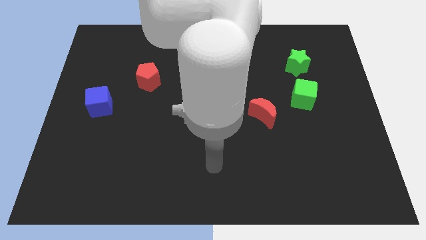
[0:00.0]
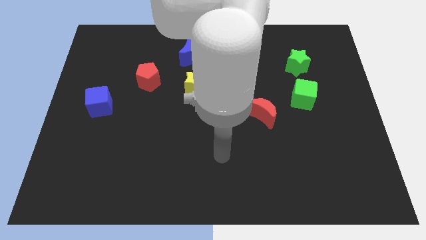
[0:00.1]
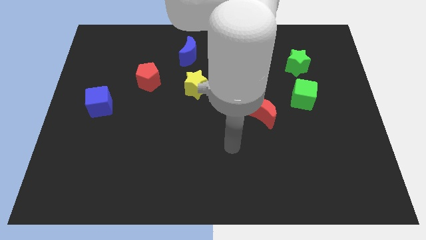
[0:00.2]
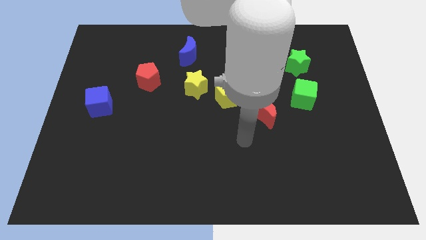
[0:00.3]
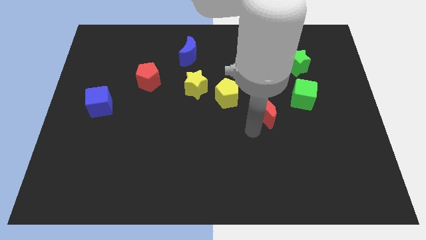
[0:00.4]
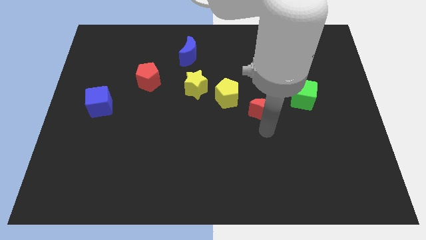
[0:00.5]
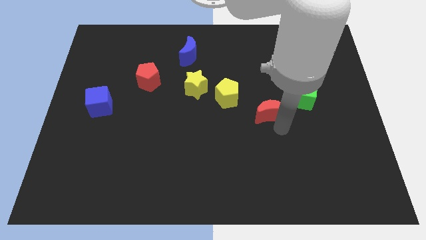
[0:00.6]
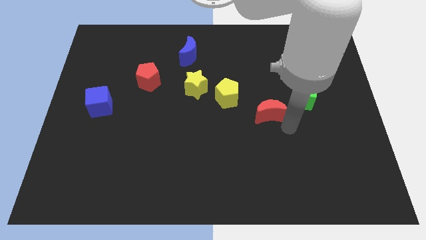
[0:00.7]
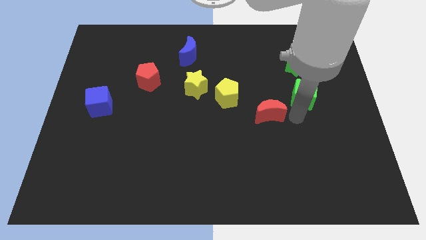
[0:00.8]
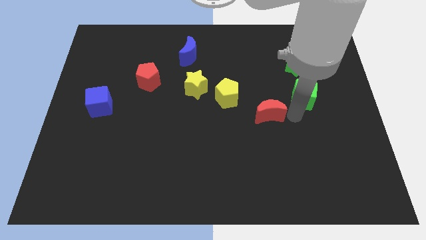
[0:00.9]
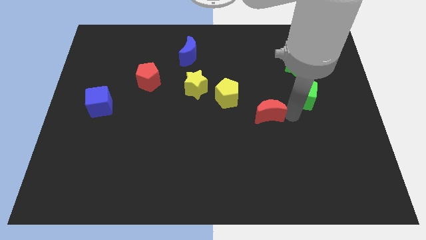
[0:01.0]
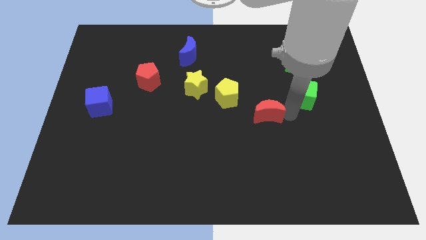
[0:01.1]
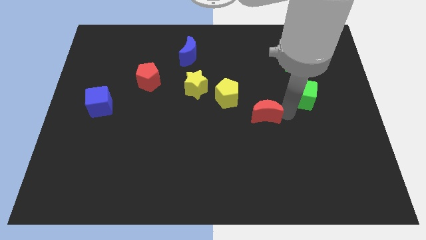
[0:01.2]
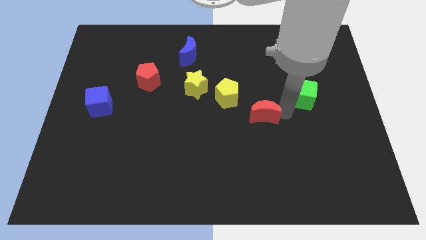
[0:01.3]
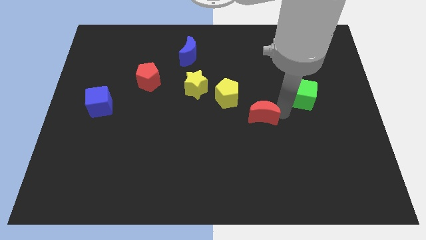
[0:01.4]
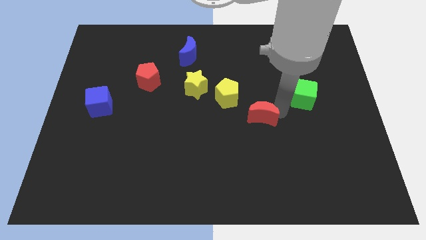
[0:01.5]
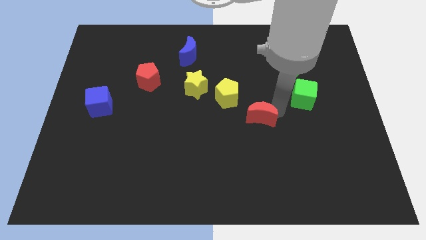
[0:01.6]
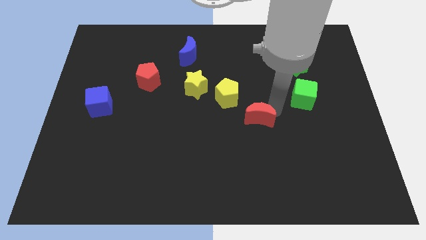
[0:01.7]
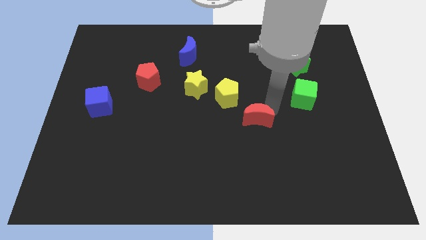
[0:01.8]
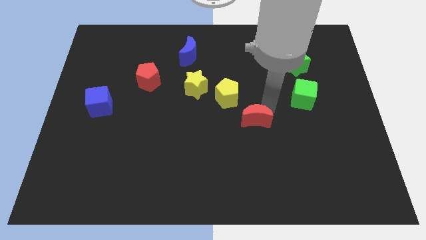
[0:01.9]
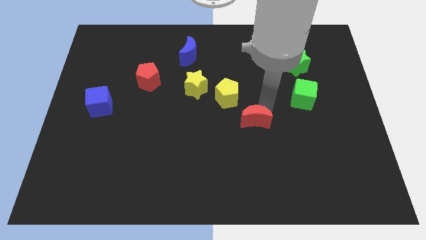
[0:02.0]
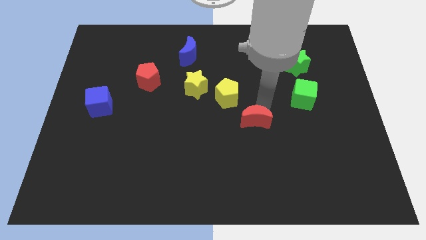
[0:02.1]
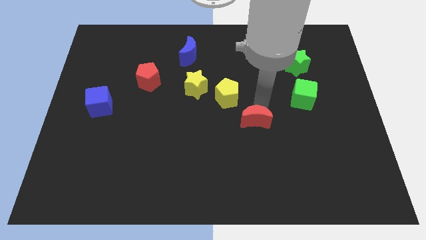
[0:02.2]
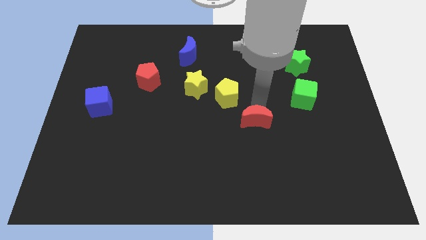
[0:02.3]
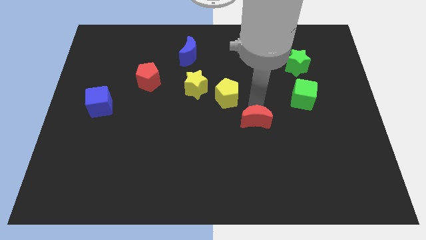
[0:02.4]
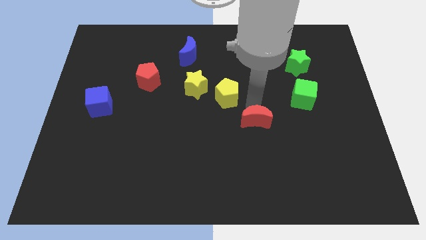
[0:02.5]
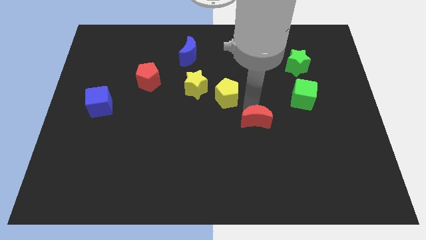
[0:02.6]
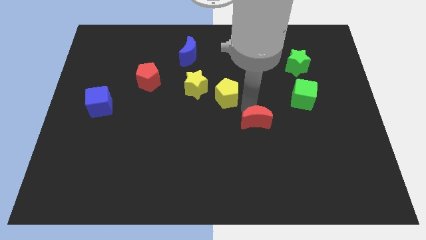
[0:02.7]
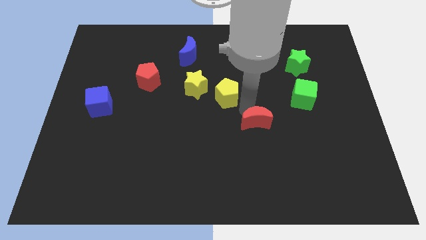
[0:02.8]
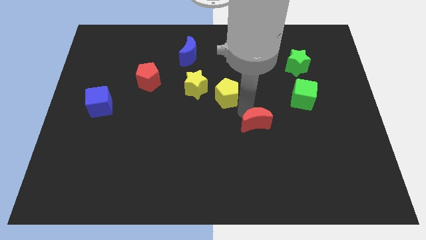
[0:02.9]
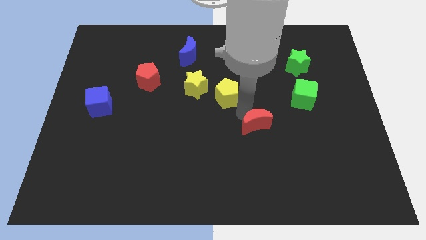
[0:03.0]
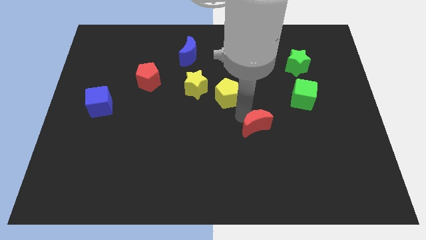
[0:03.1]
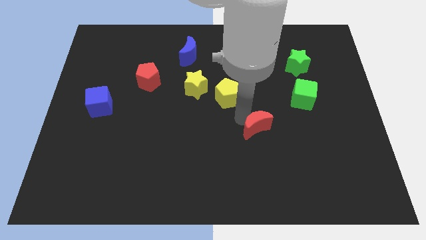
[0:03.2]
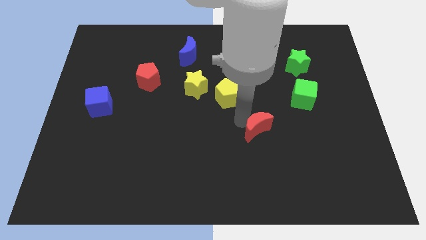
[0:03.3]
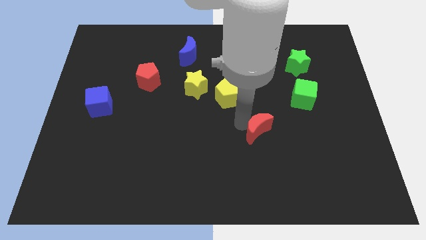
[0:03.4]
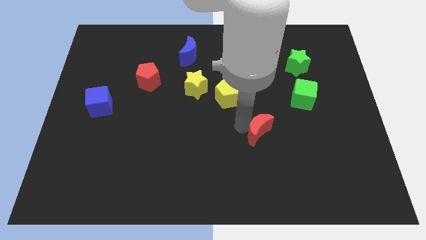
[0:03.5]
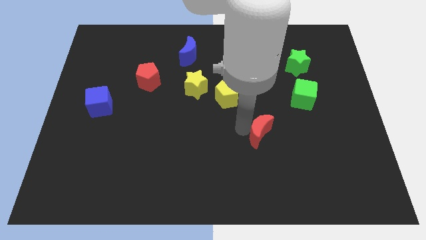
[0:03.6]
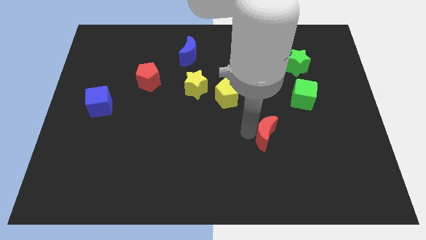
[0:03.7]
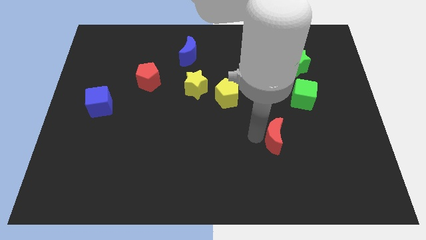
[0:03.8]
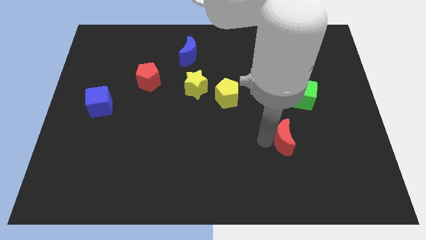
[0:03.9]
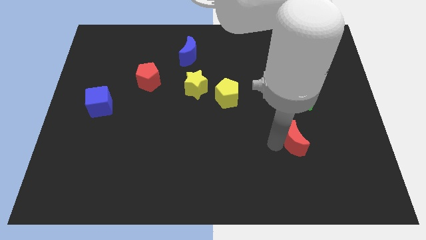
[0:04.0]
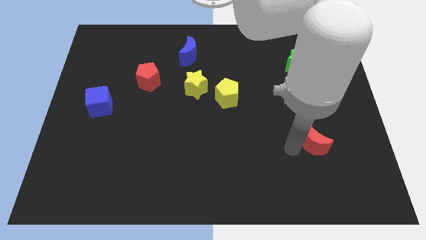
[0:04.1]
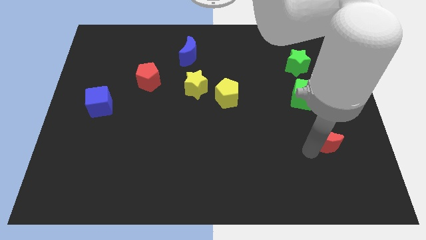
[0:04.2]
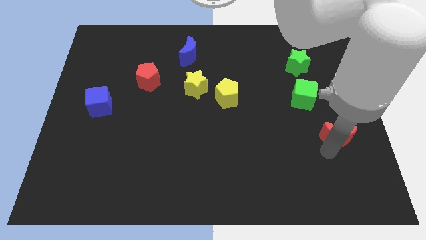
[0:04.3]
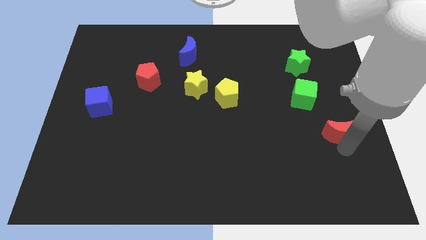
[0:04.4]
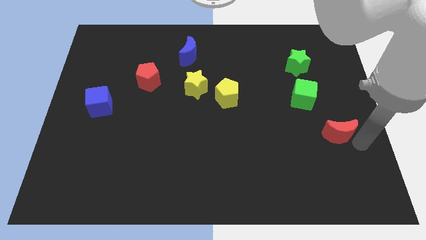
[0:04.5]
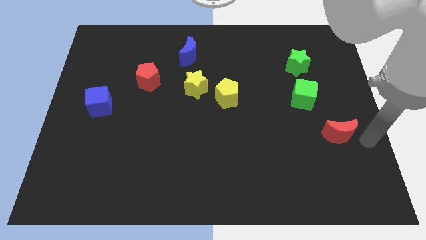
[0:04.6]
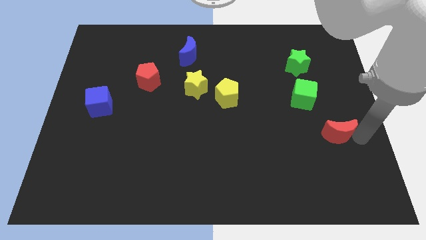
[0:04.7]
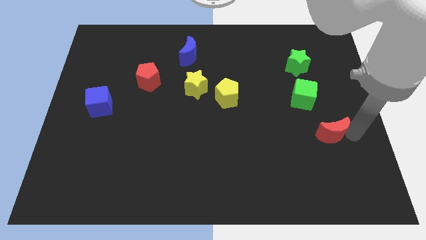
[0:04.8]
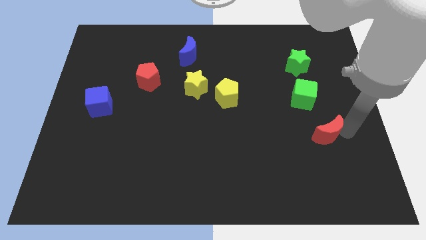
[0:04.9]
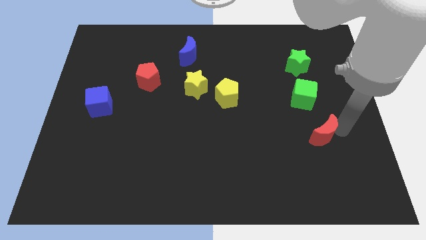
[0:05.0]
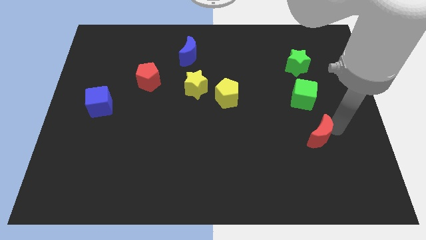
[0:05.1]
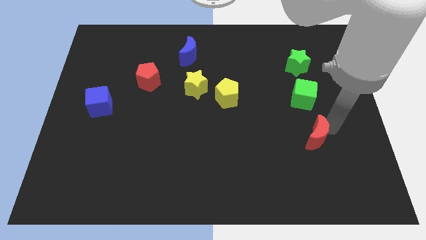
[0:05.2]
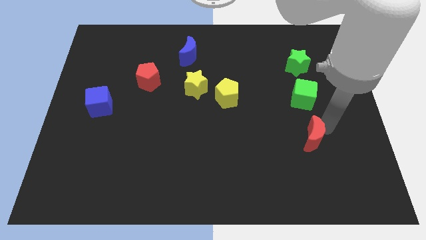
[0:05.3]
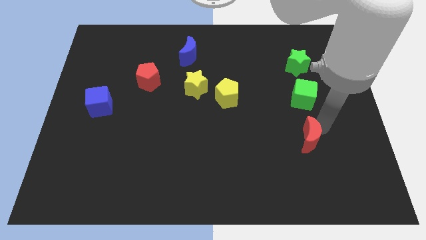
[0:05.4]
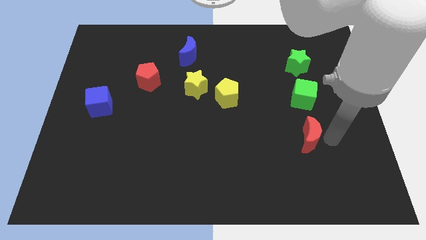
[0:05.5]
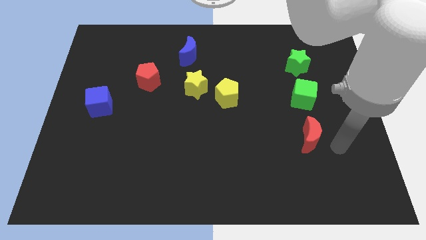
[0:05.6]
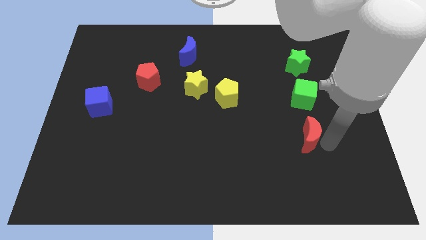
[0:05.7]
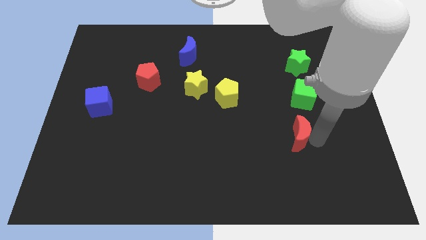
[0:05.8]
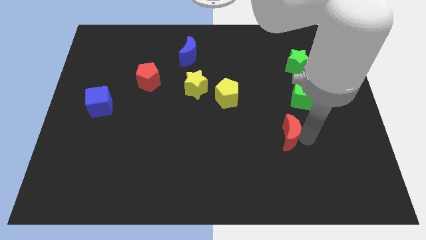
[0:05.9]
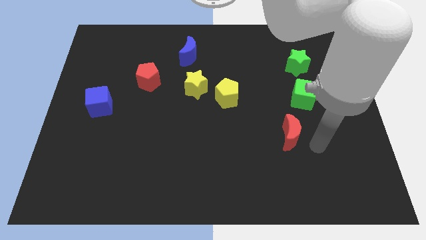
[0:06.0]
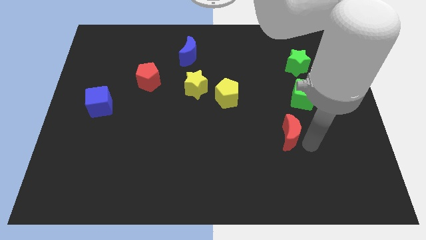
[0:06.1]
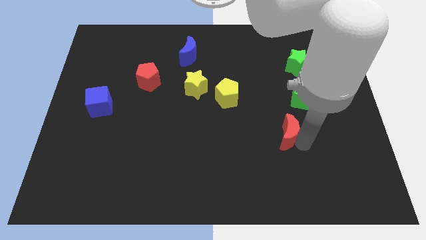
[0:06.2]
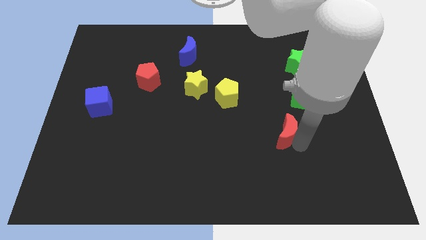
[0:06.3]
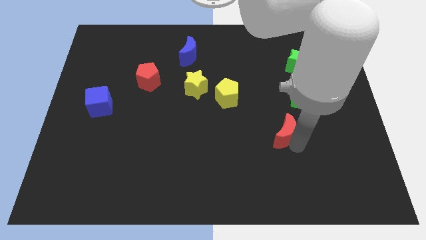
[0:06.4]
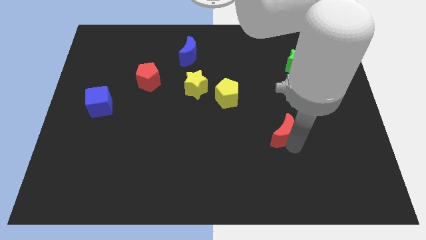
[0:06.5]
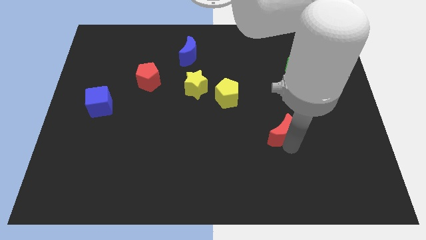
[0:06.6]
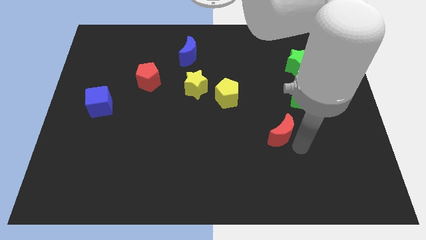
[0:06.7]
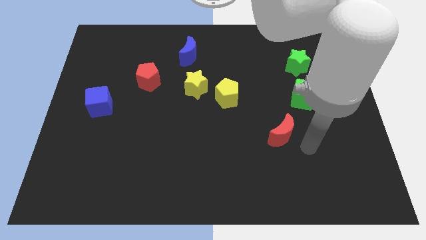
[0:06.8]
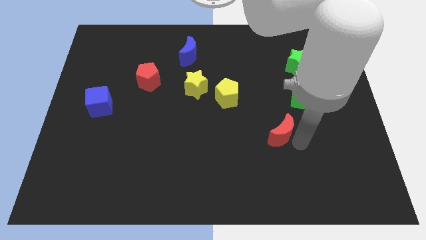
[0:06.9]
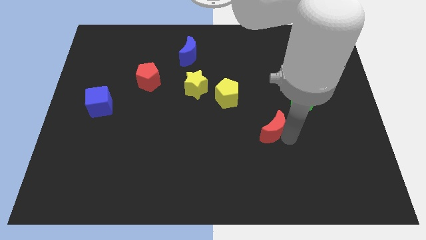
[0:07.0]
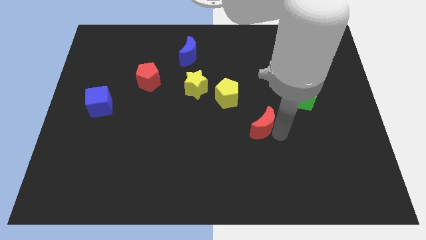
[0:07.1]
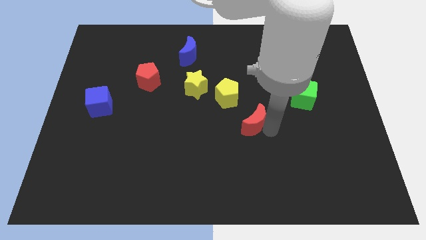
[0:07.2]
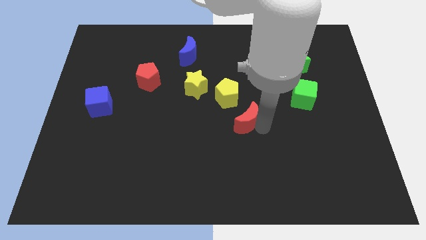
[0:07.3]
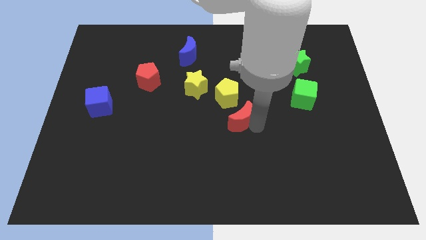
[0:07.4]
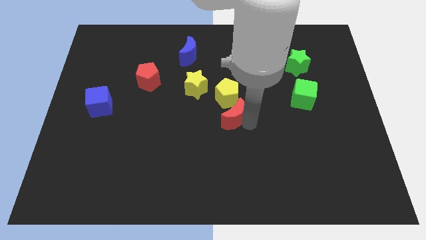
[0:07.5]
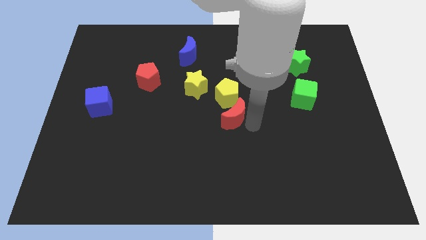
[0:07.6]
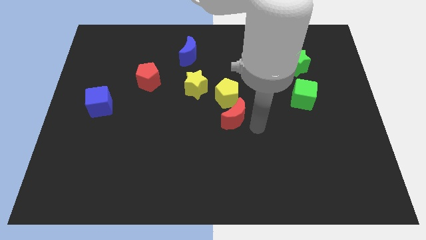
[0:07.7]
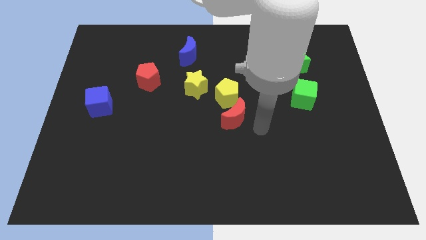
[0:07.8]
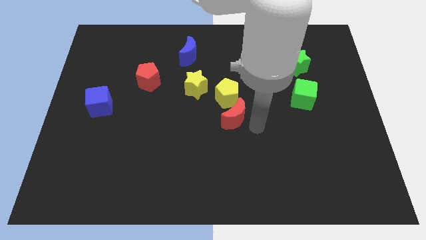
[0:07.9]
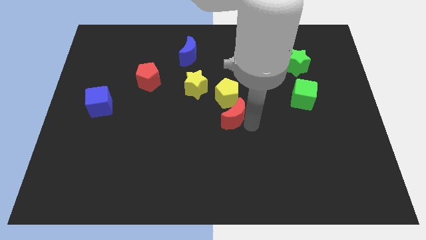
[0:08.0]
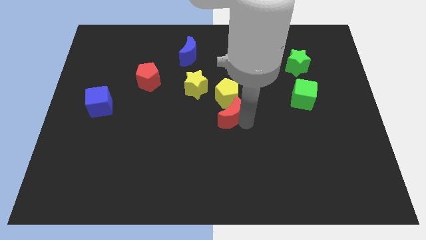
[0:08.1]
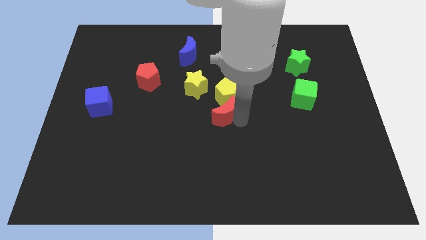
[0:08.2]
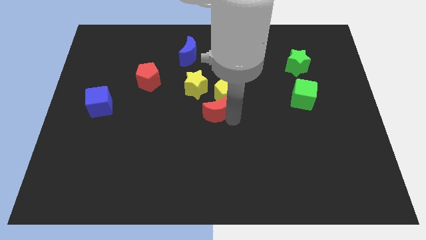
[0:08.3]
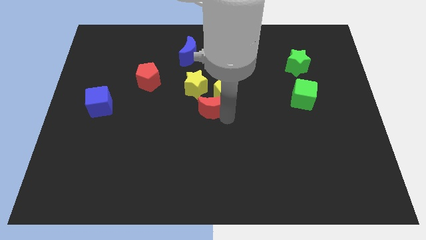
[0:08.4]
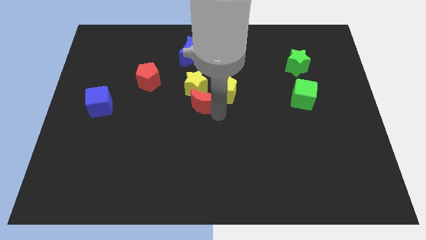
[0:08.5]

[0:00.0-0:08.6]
put the red moon towards the yellow star
